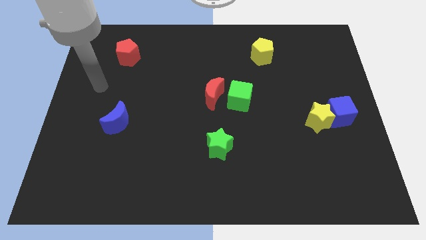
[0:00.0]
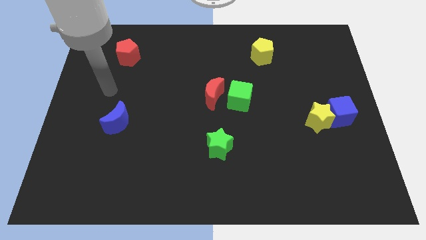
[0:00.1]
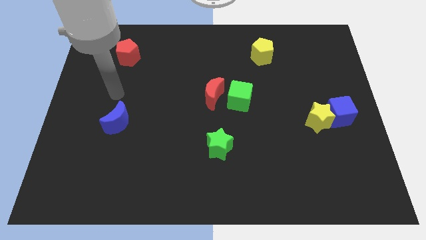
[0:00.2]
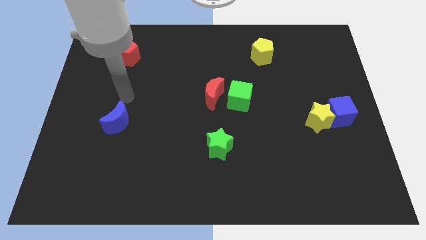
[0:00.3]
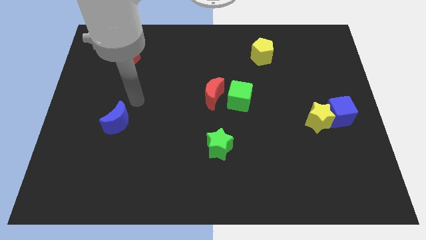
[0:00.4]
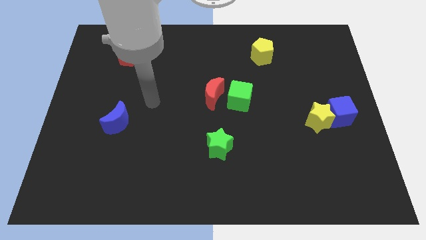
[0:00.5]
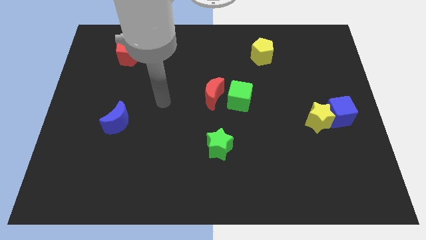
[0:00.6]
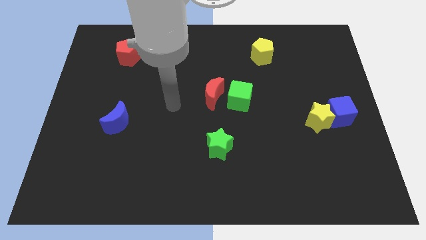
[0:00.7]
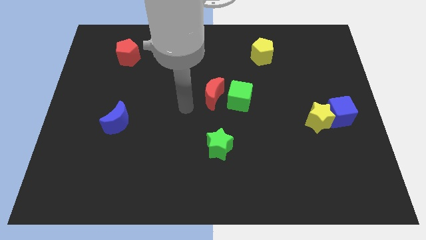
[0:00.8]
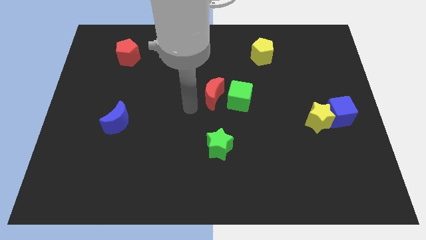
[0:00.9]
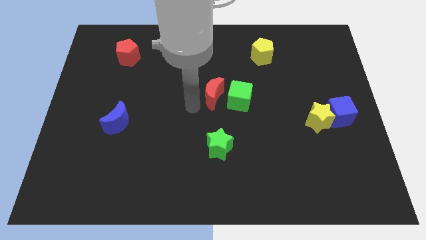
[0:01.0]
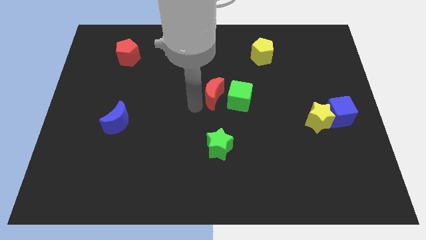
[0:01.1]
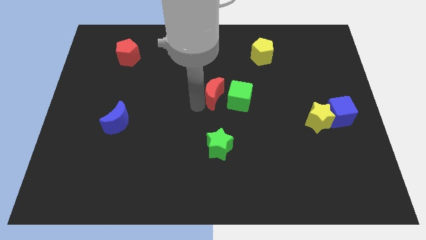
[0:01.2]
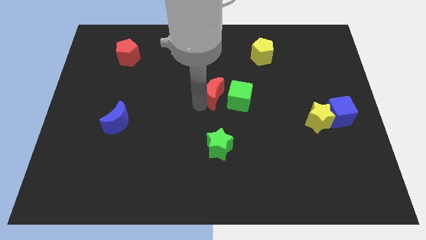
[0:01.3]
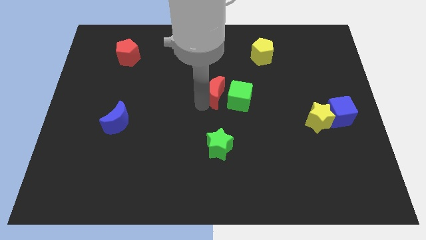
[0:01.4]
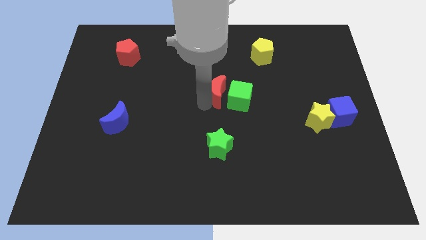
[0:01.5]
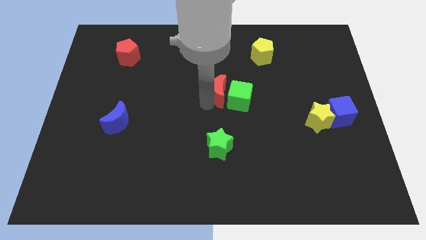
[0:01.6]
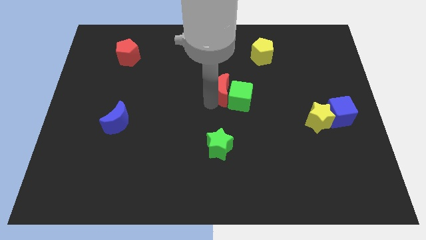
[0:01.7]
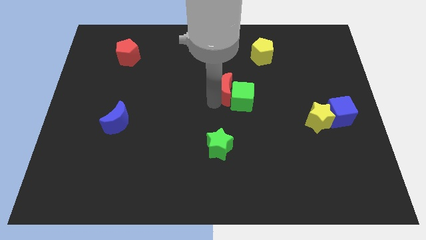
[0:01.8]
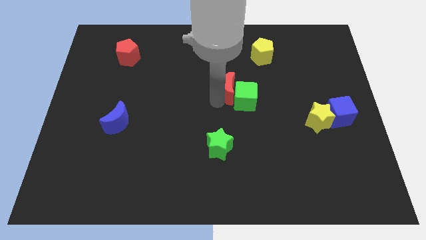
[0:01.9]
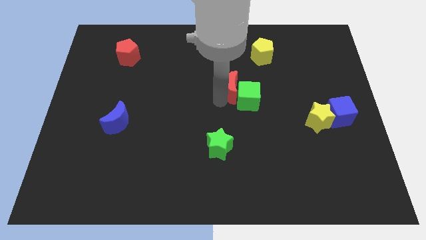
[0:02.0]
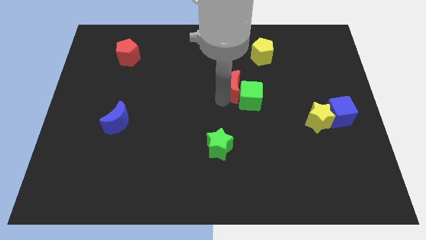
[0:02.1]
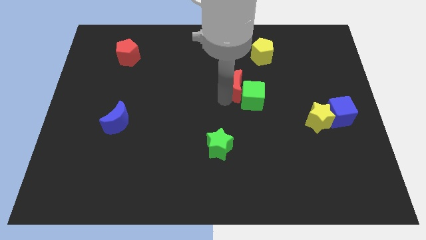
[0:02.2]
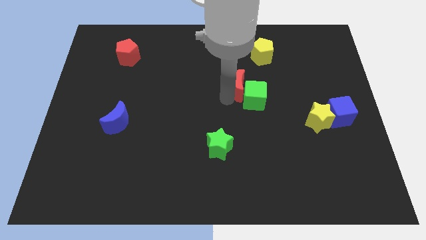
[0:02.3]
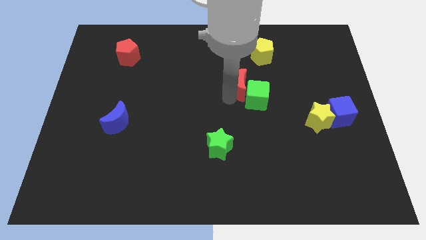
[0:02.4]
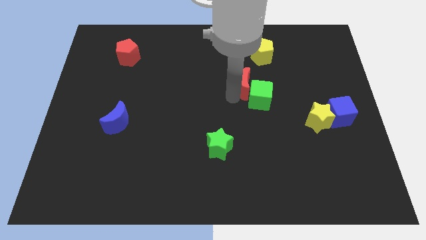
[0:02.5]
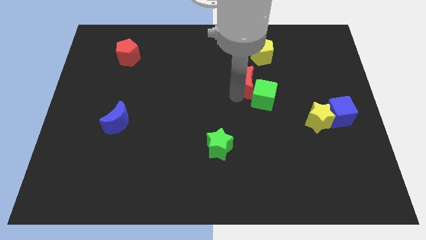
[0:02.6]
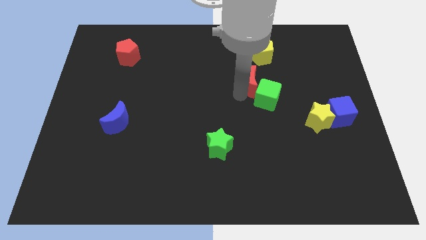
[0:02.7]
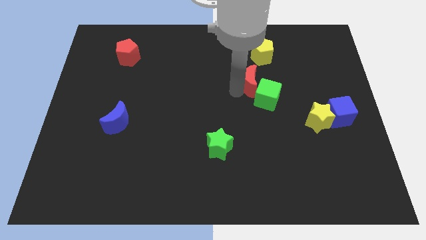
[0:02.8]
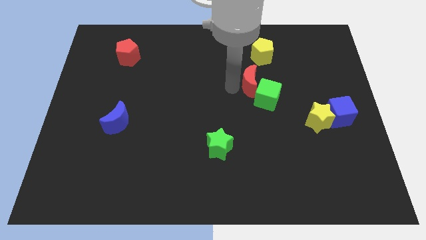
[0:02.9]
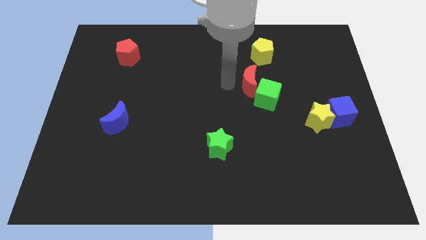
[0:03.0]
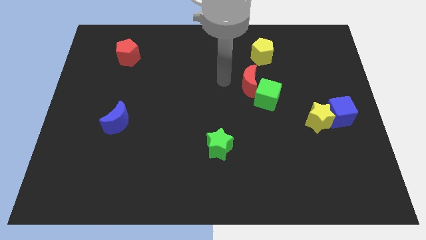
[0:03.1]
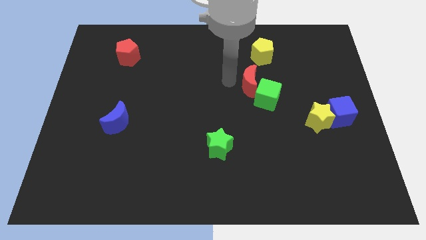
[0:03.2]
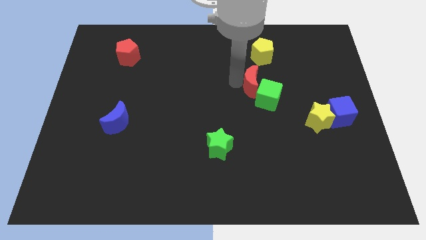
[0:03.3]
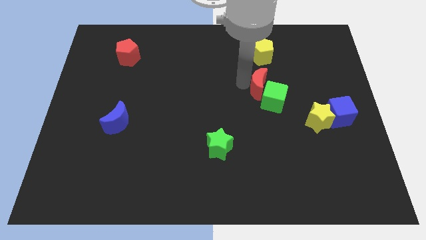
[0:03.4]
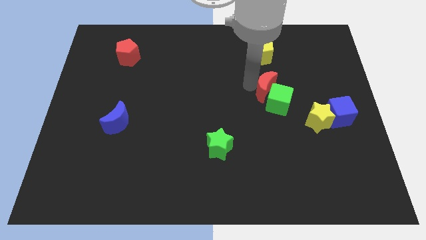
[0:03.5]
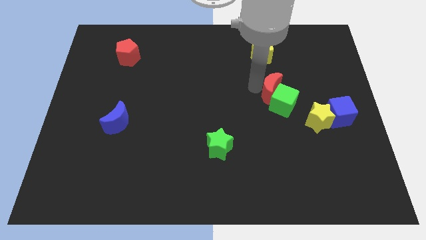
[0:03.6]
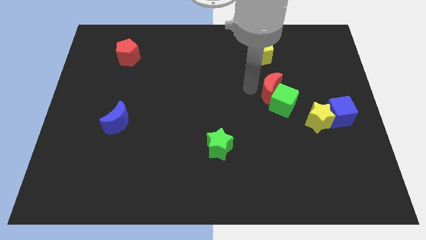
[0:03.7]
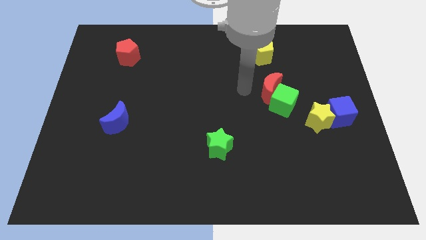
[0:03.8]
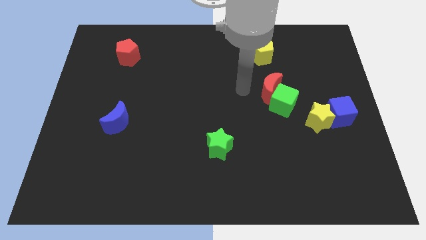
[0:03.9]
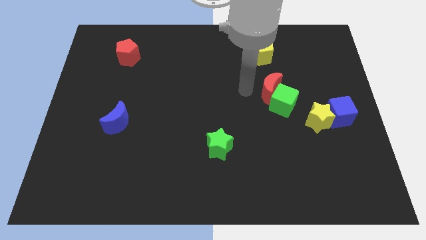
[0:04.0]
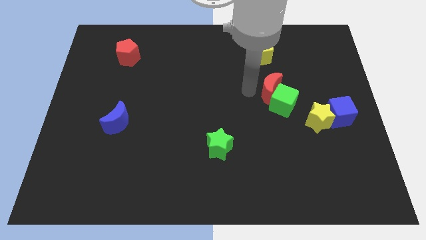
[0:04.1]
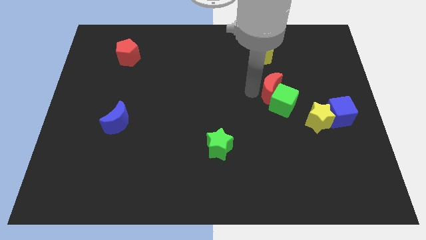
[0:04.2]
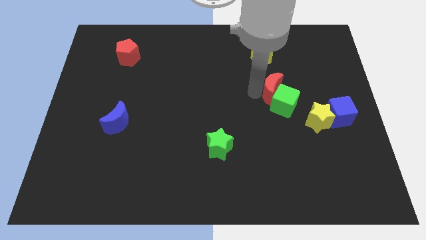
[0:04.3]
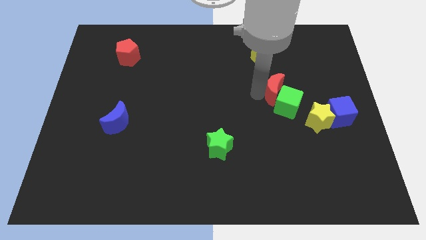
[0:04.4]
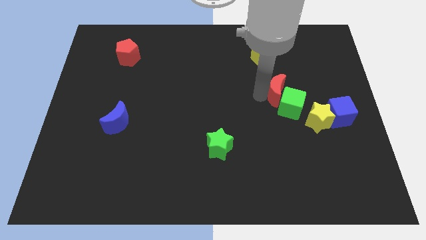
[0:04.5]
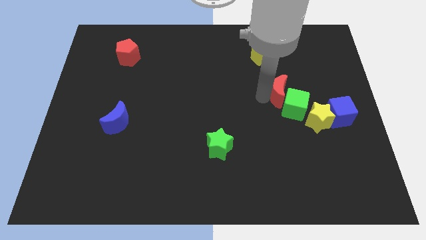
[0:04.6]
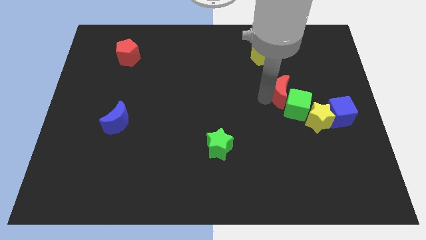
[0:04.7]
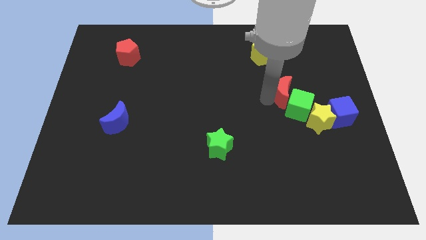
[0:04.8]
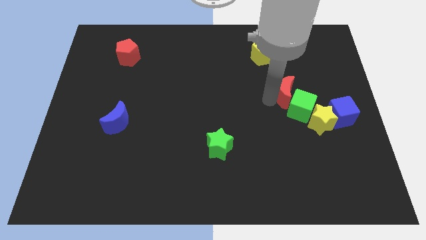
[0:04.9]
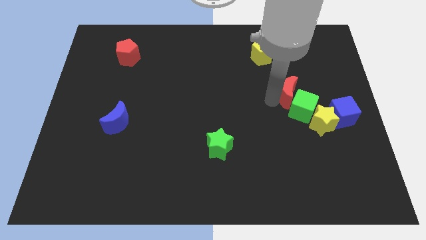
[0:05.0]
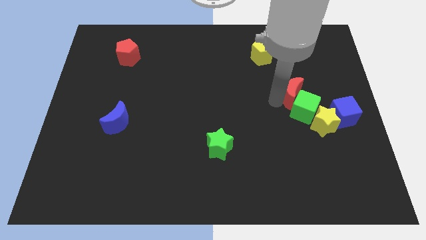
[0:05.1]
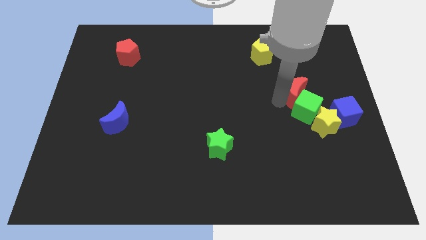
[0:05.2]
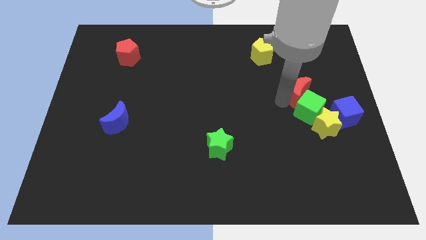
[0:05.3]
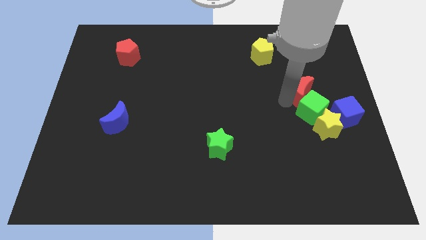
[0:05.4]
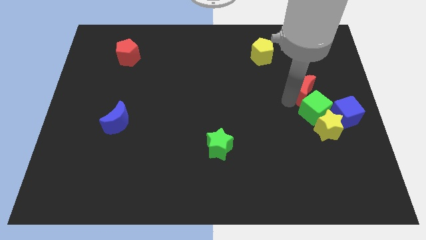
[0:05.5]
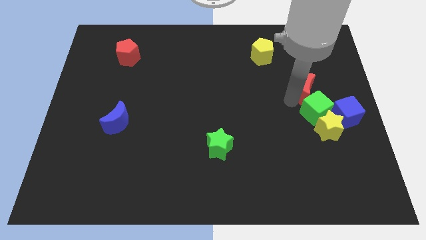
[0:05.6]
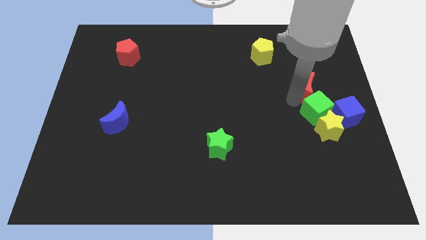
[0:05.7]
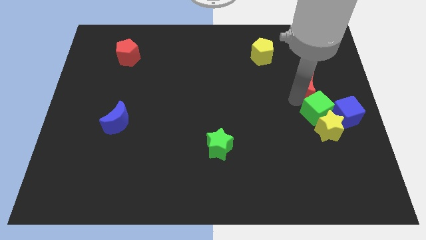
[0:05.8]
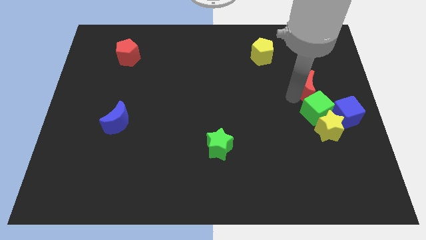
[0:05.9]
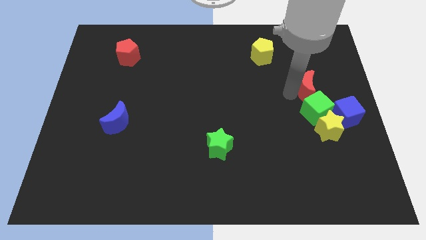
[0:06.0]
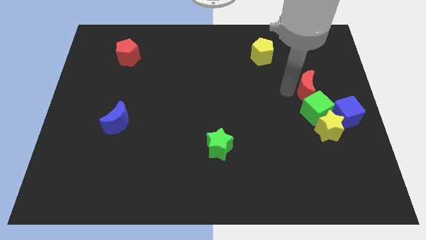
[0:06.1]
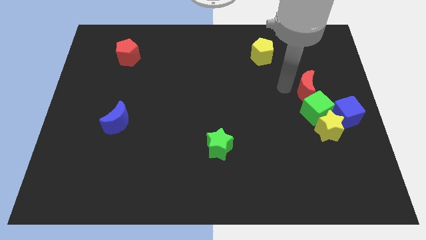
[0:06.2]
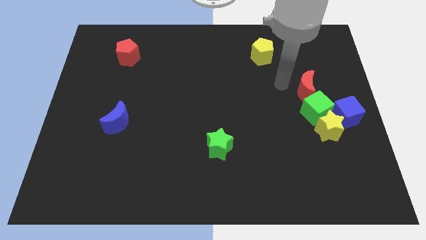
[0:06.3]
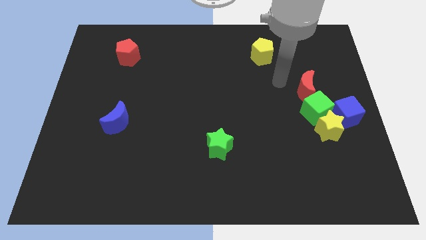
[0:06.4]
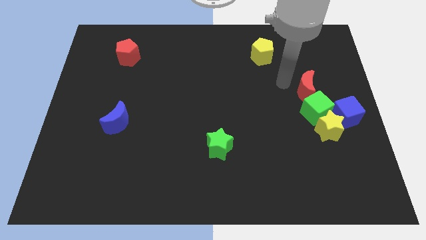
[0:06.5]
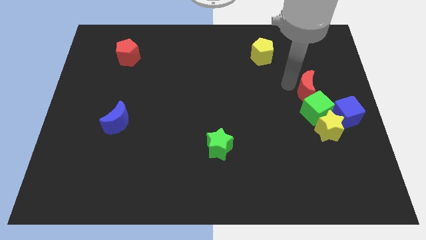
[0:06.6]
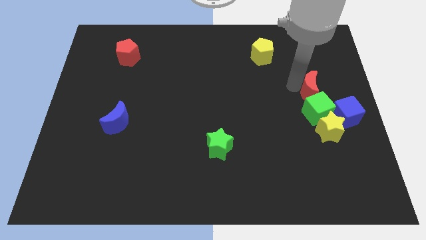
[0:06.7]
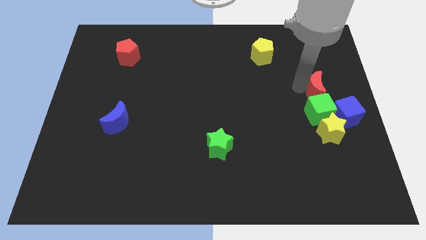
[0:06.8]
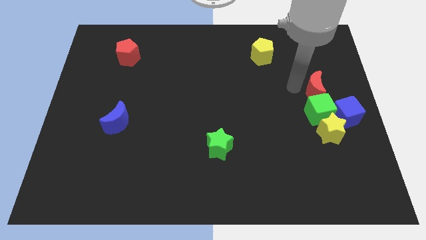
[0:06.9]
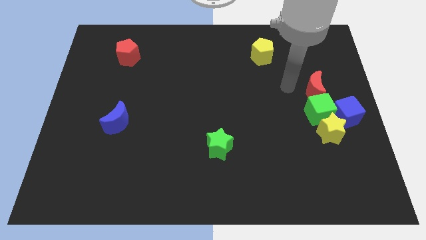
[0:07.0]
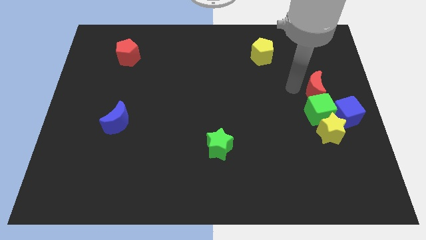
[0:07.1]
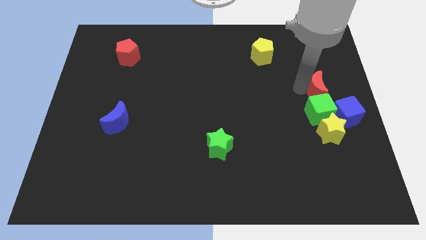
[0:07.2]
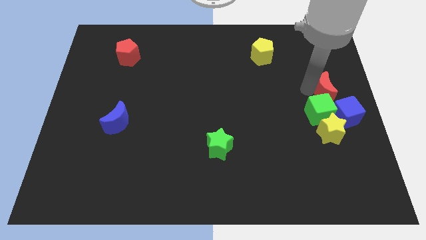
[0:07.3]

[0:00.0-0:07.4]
move the red moon to the right side of the board
